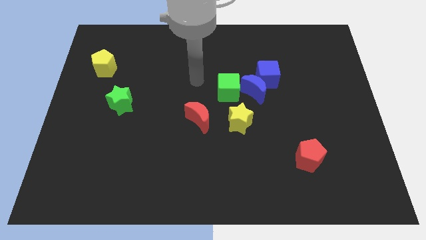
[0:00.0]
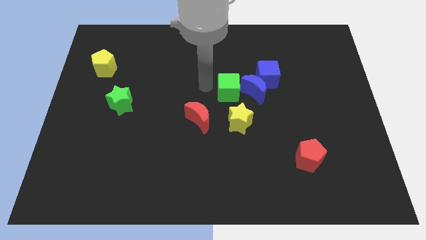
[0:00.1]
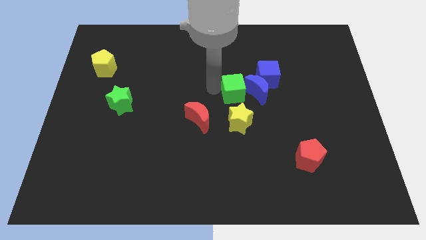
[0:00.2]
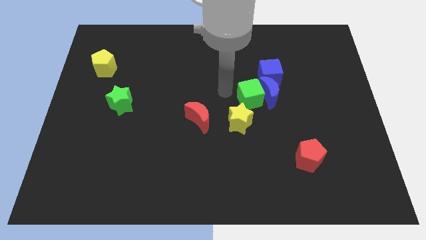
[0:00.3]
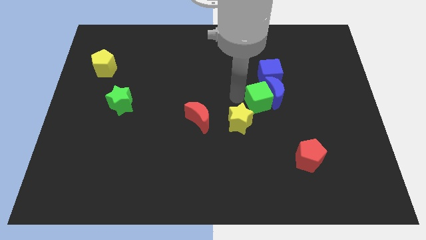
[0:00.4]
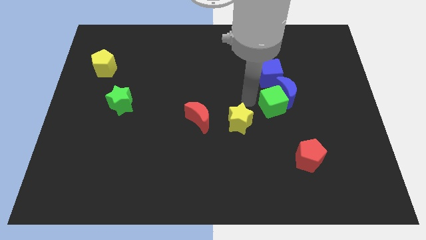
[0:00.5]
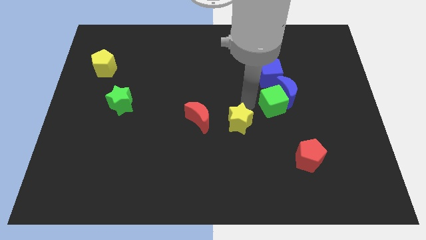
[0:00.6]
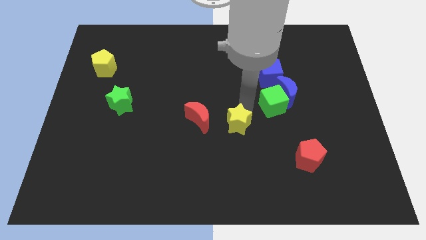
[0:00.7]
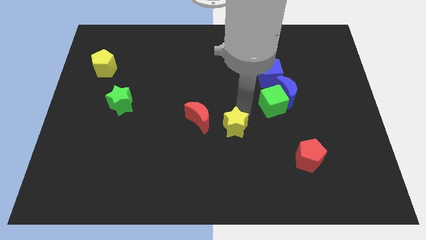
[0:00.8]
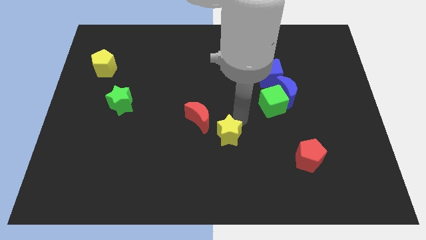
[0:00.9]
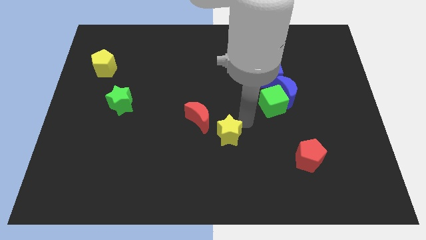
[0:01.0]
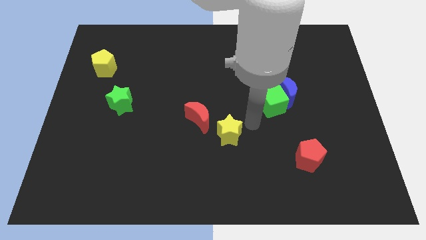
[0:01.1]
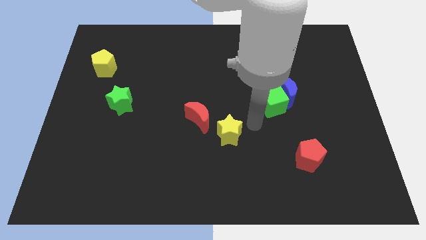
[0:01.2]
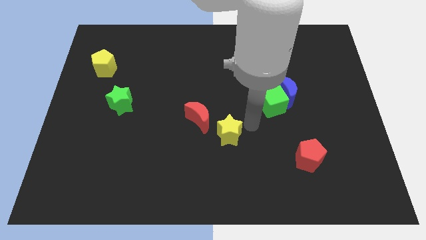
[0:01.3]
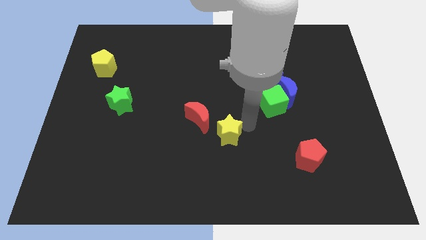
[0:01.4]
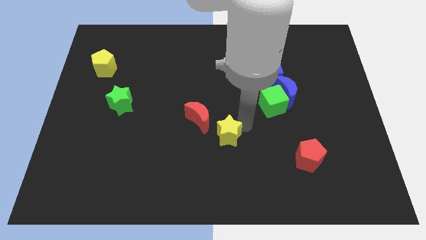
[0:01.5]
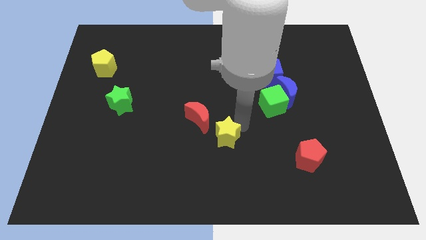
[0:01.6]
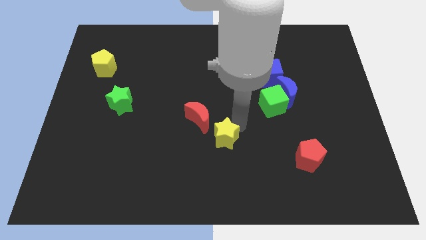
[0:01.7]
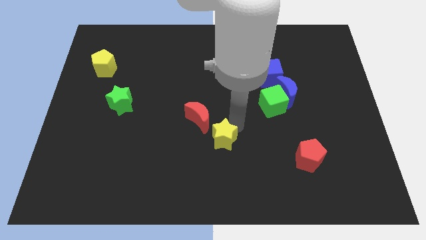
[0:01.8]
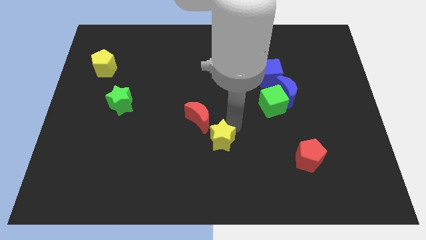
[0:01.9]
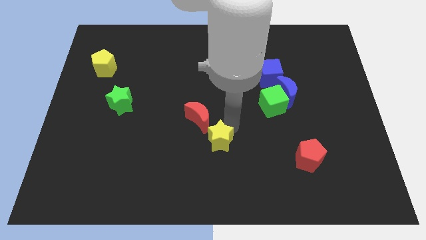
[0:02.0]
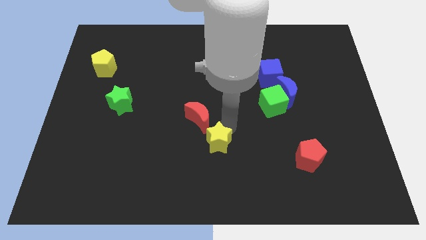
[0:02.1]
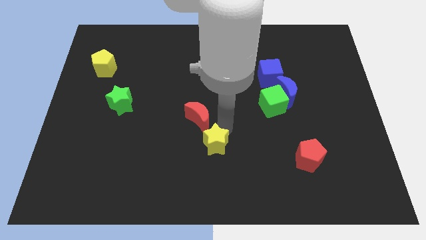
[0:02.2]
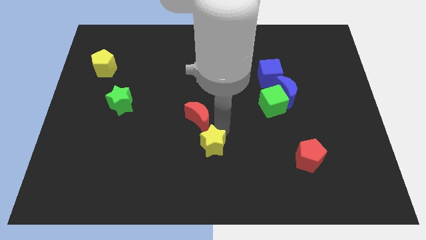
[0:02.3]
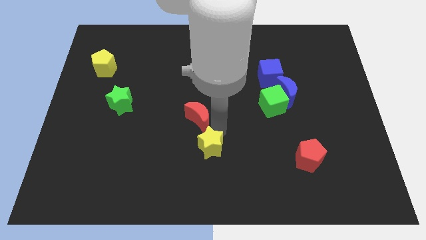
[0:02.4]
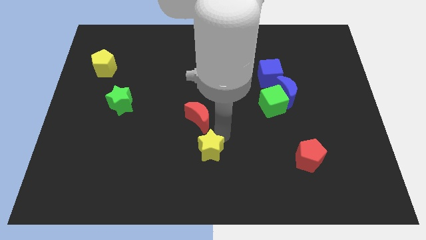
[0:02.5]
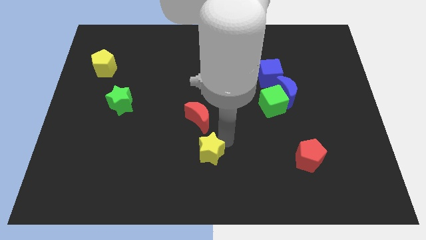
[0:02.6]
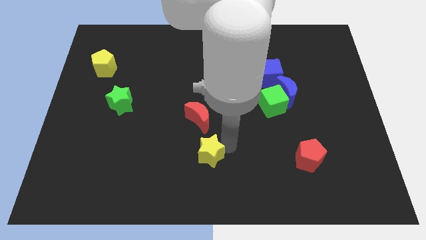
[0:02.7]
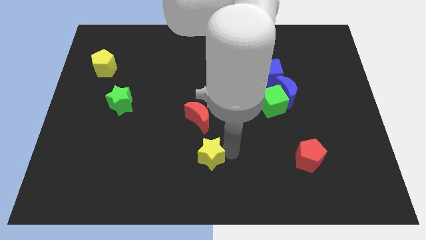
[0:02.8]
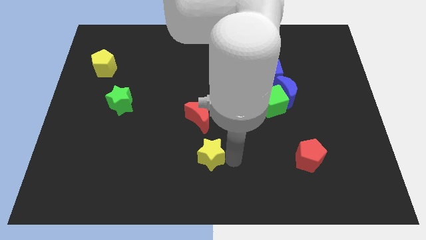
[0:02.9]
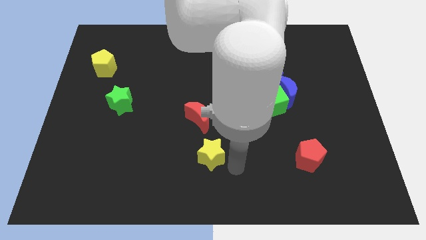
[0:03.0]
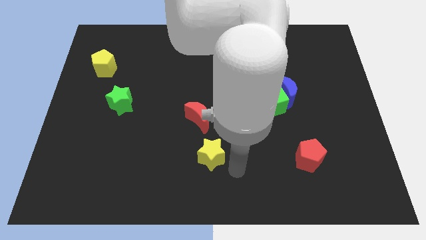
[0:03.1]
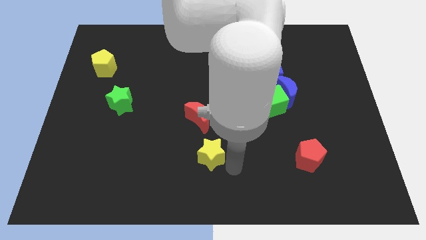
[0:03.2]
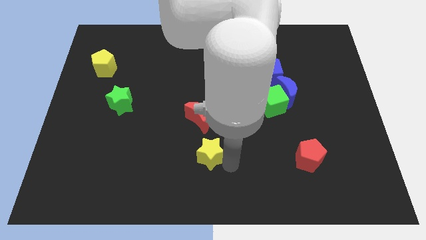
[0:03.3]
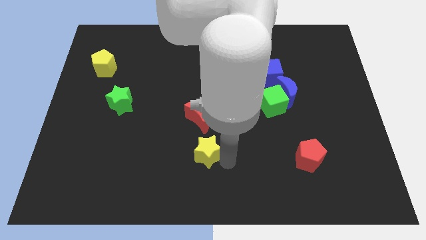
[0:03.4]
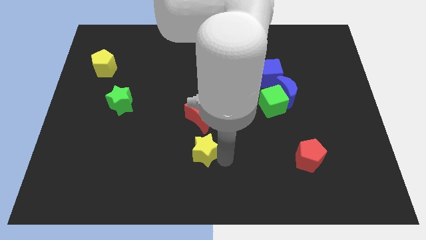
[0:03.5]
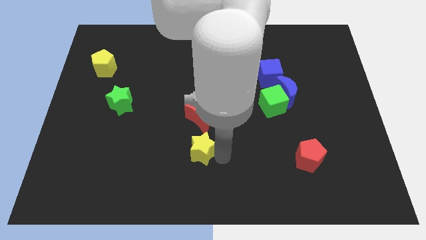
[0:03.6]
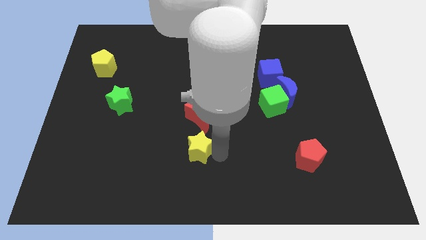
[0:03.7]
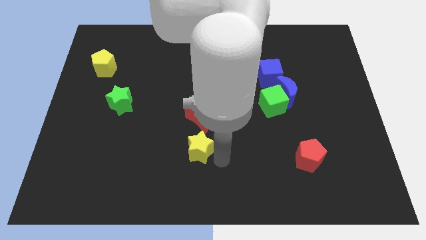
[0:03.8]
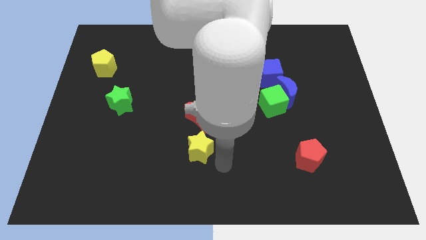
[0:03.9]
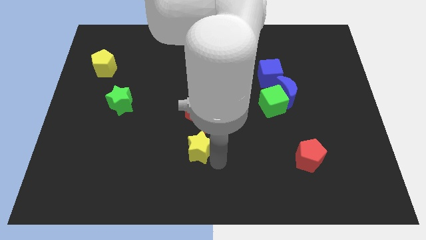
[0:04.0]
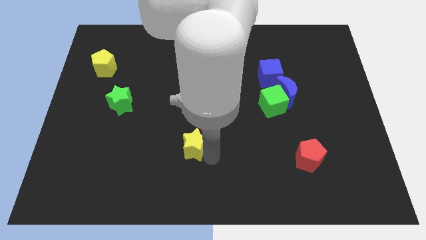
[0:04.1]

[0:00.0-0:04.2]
move the yellow star to the left a little

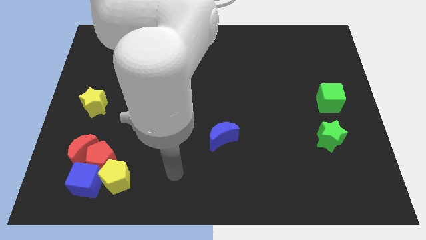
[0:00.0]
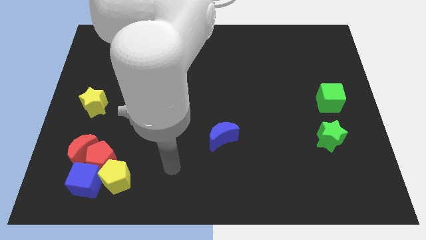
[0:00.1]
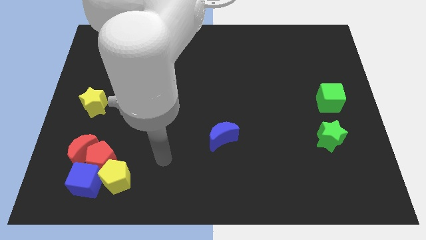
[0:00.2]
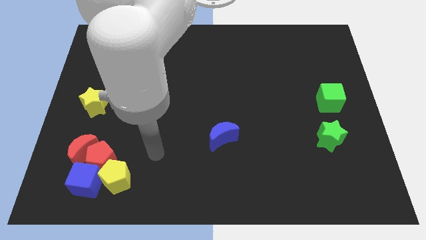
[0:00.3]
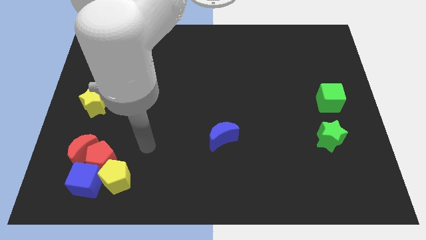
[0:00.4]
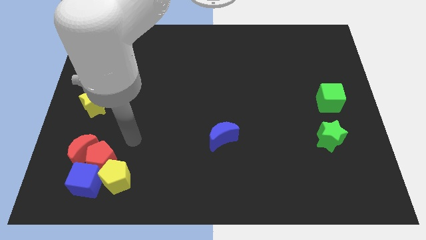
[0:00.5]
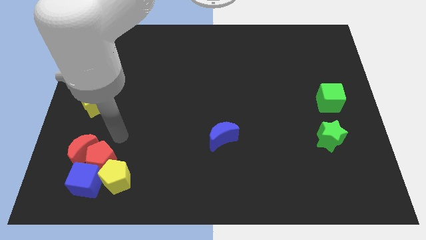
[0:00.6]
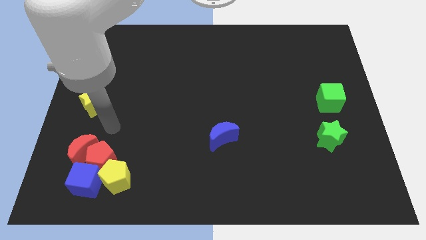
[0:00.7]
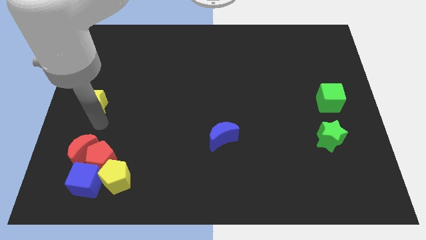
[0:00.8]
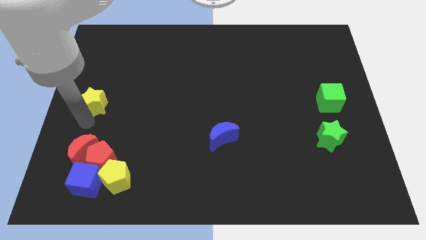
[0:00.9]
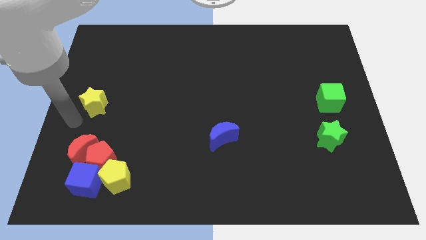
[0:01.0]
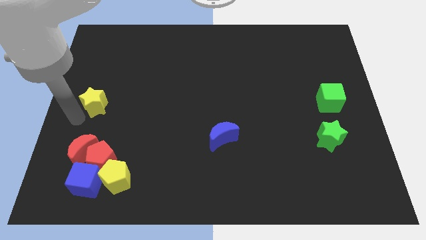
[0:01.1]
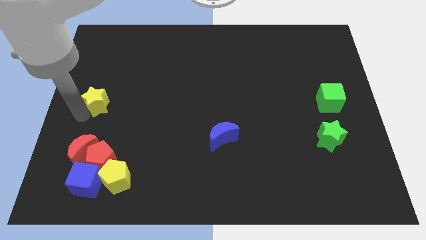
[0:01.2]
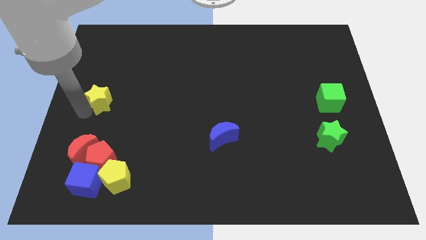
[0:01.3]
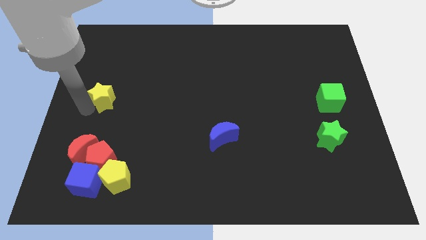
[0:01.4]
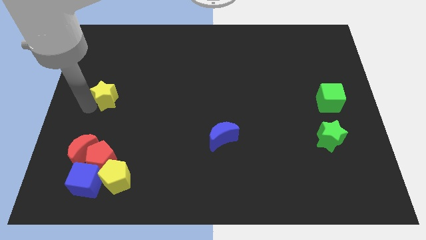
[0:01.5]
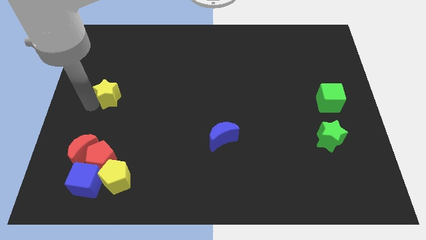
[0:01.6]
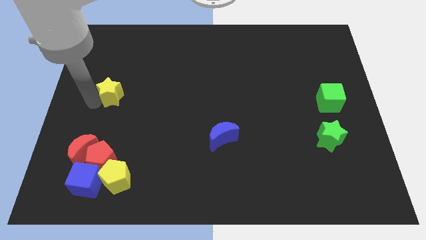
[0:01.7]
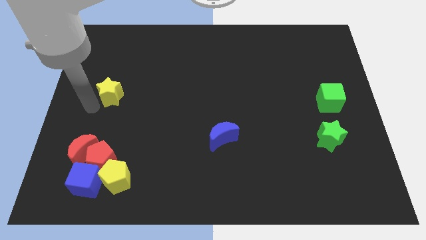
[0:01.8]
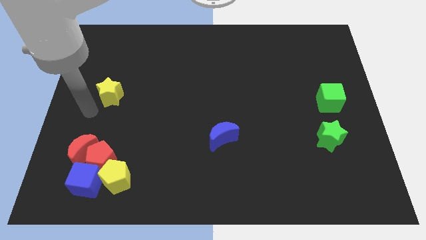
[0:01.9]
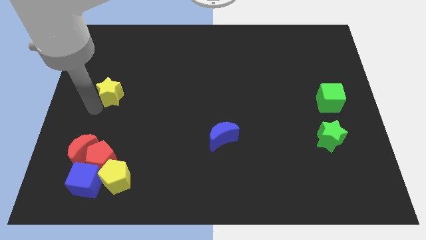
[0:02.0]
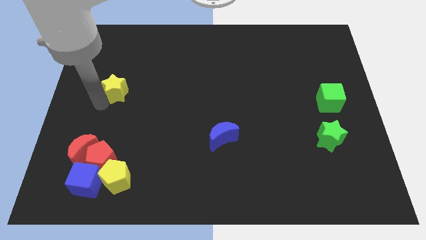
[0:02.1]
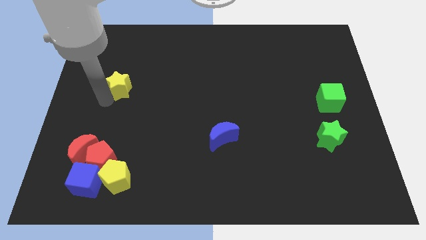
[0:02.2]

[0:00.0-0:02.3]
slightly push the yellow star upwards and then right

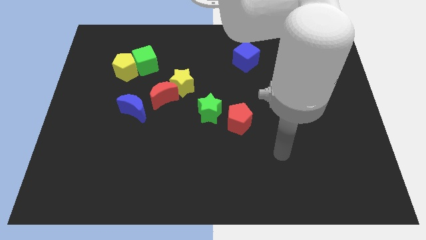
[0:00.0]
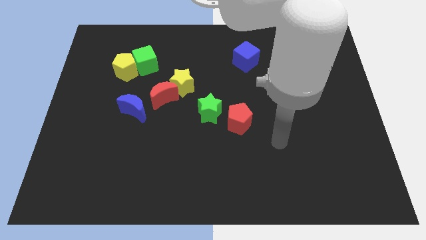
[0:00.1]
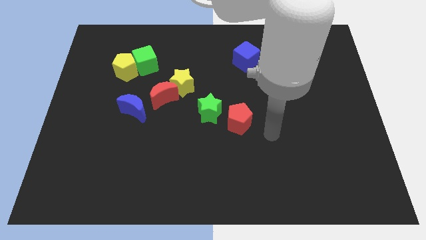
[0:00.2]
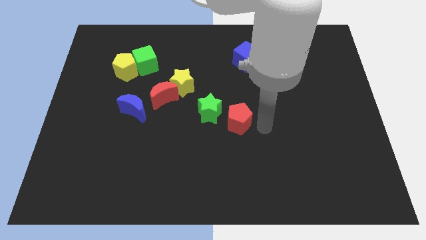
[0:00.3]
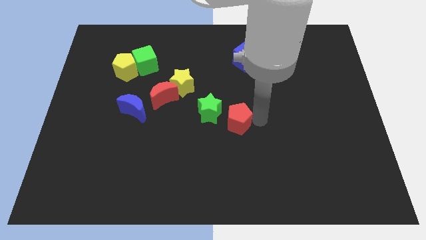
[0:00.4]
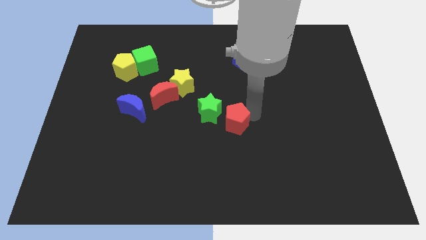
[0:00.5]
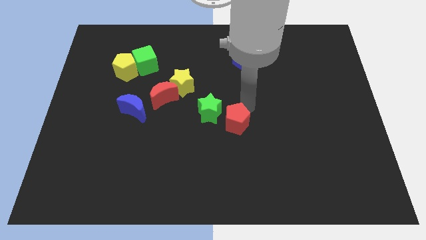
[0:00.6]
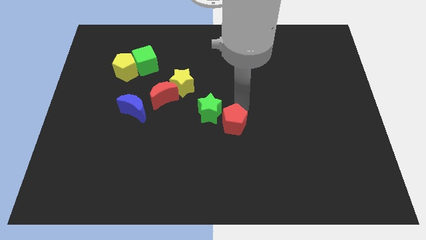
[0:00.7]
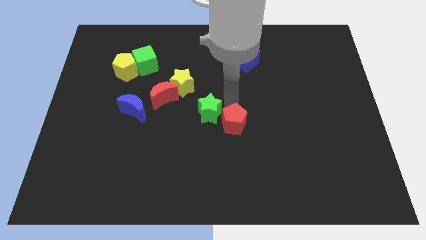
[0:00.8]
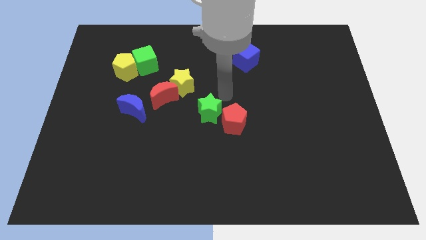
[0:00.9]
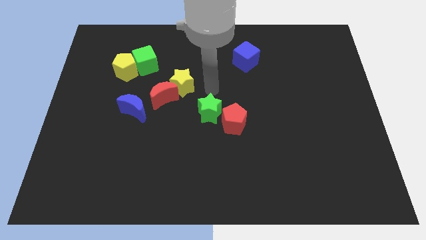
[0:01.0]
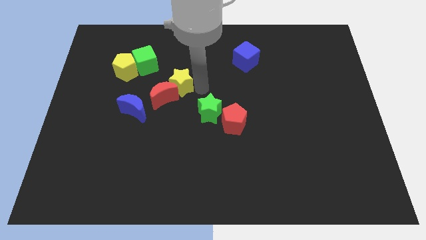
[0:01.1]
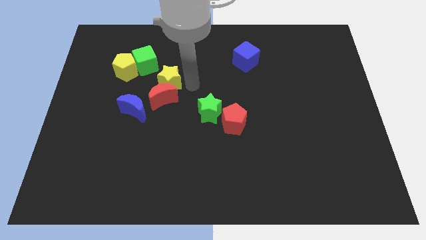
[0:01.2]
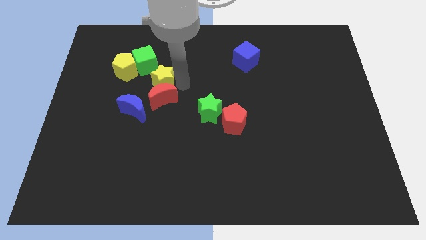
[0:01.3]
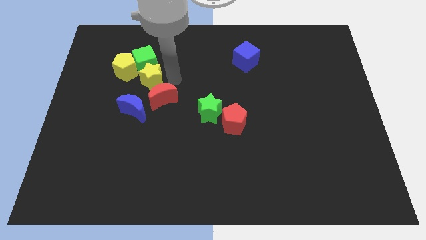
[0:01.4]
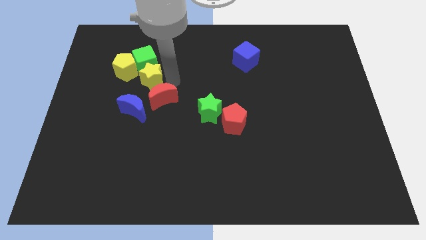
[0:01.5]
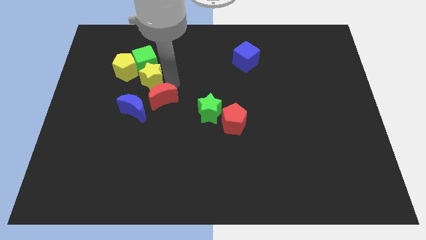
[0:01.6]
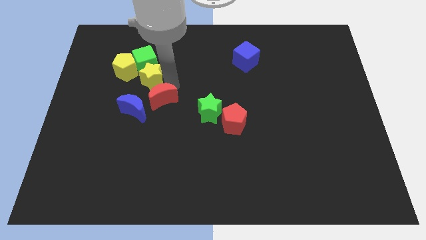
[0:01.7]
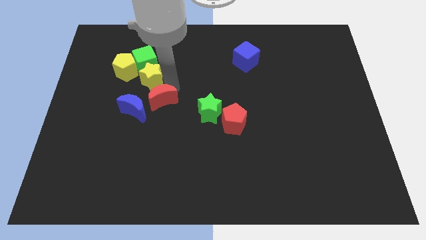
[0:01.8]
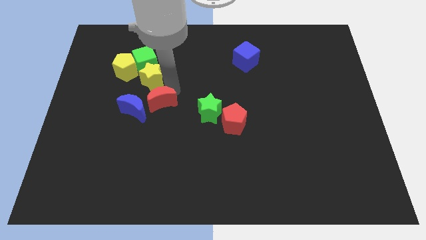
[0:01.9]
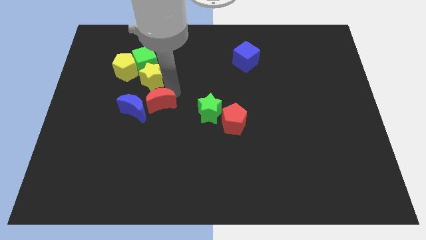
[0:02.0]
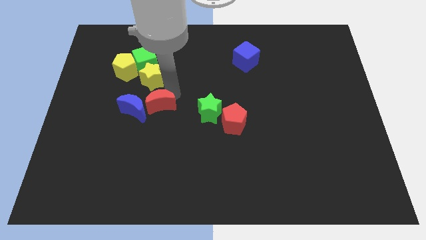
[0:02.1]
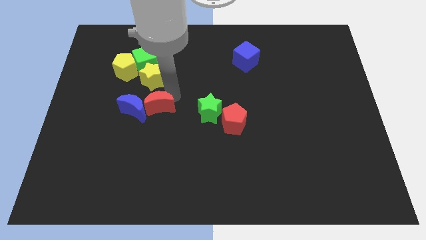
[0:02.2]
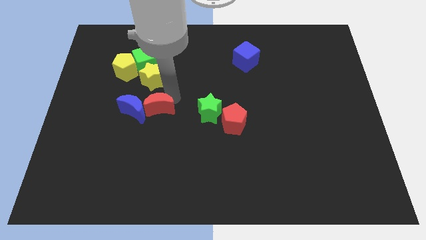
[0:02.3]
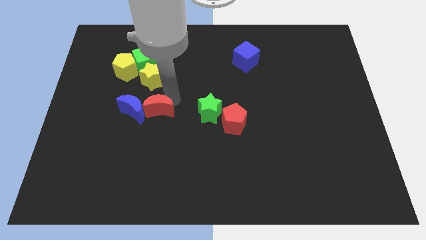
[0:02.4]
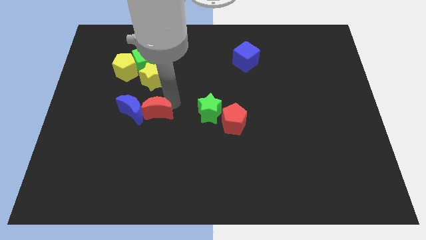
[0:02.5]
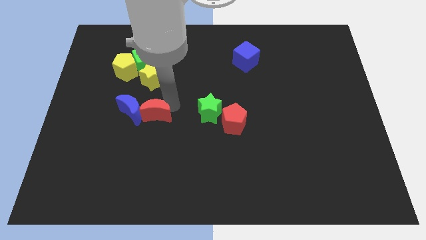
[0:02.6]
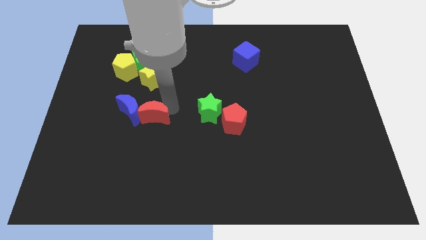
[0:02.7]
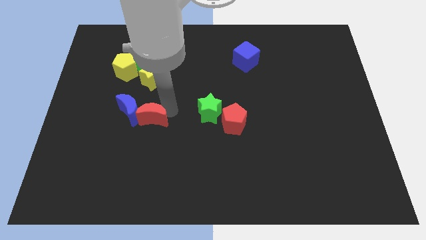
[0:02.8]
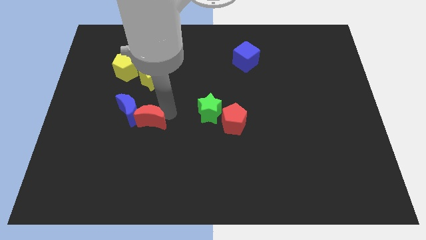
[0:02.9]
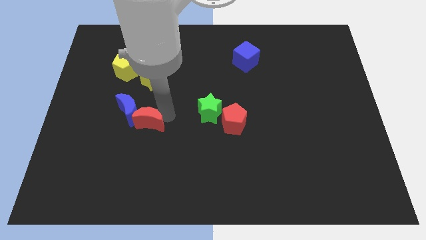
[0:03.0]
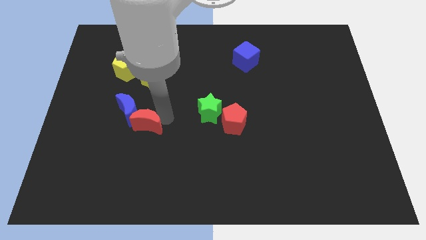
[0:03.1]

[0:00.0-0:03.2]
slightly slide the red moon downwards and to the left diagonally
